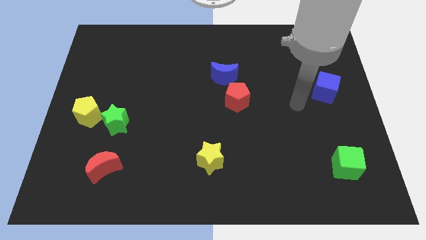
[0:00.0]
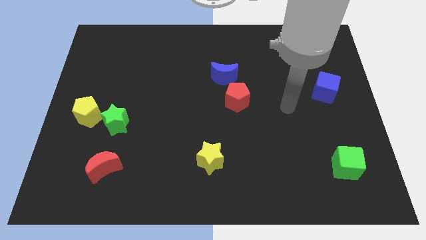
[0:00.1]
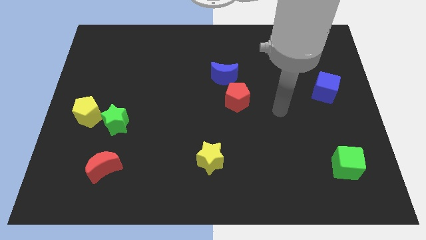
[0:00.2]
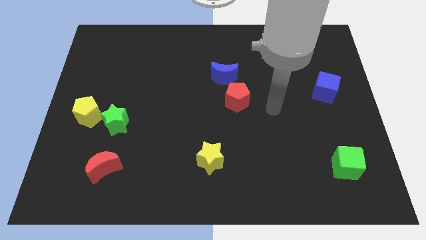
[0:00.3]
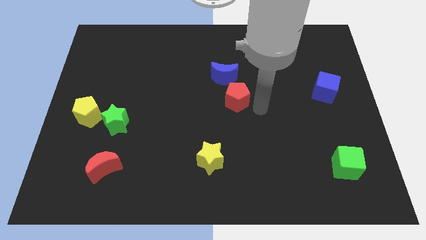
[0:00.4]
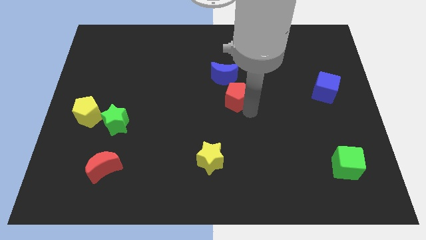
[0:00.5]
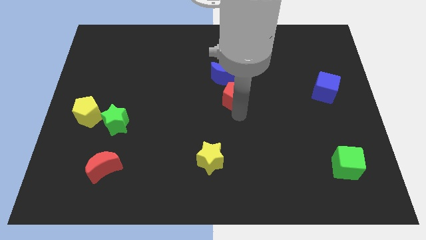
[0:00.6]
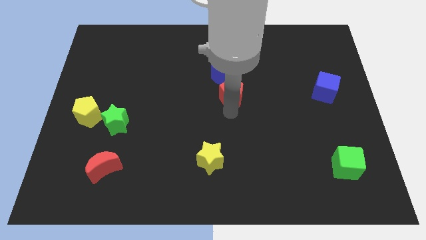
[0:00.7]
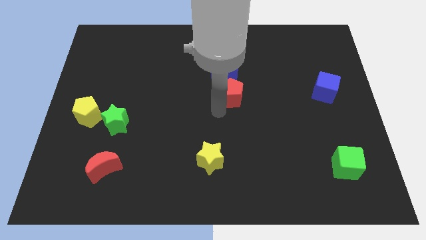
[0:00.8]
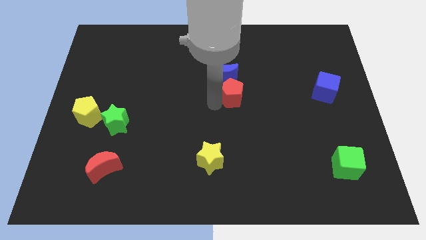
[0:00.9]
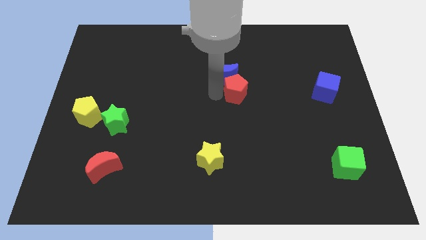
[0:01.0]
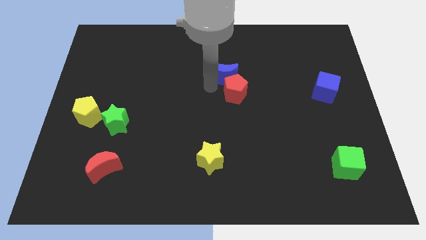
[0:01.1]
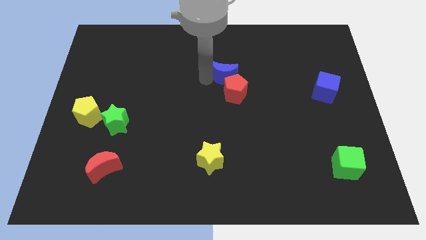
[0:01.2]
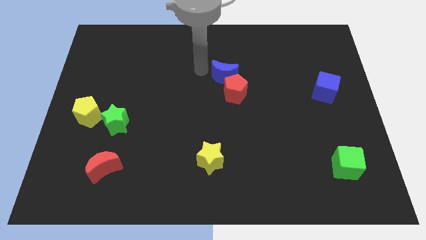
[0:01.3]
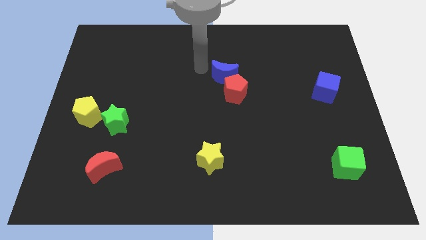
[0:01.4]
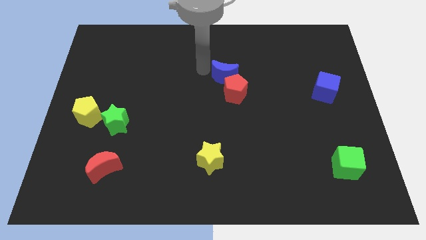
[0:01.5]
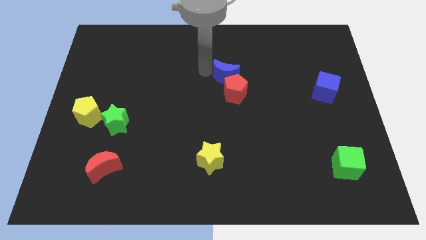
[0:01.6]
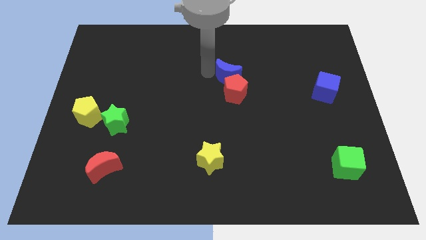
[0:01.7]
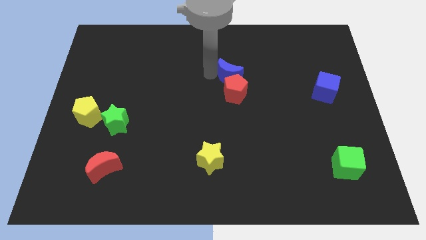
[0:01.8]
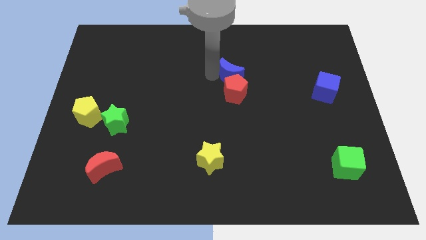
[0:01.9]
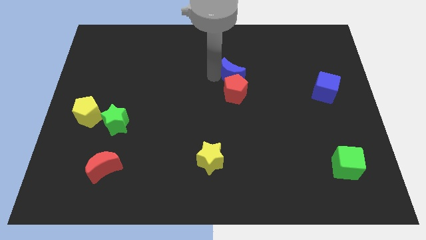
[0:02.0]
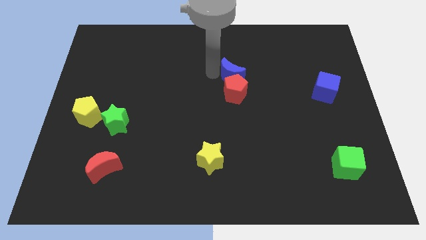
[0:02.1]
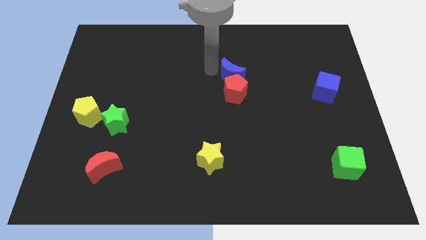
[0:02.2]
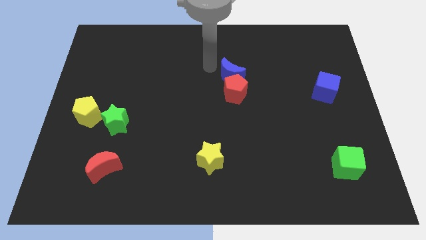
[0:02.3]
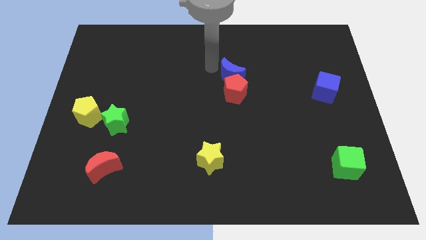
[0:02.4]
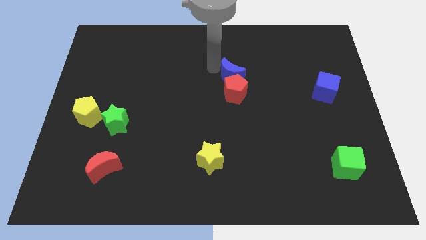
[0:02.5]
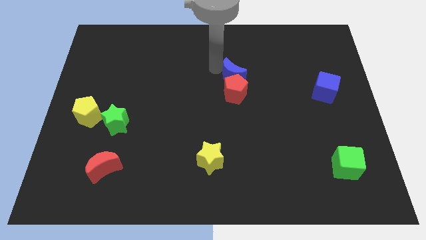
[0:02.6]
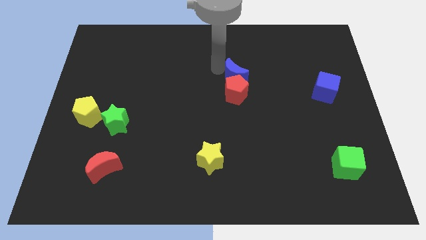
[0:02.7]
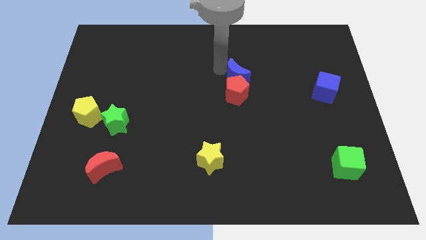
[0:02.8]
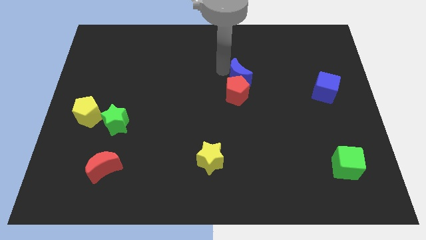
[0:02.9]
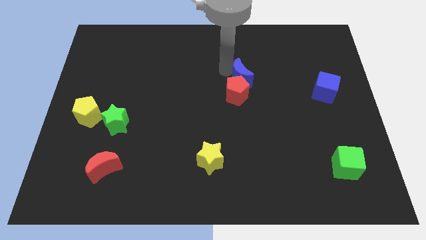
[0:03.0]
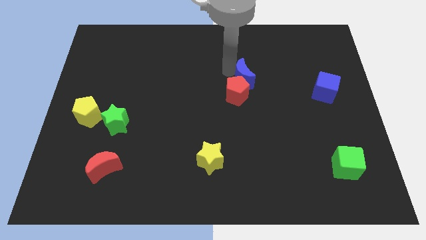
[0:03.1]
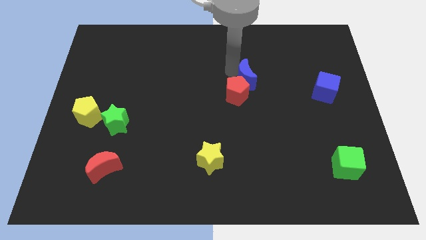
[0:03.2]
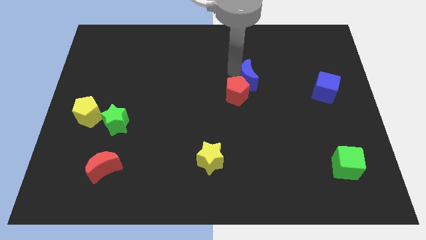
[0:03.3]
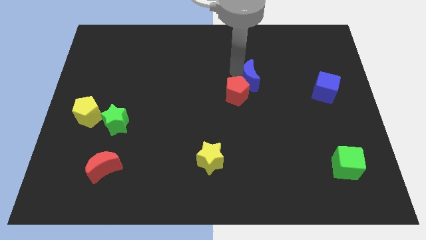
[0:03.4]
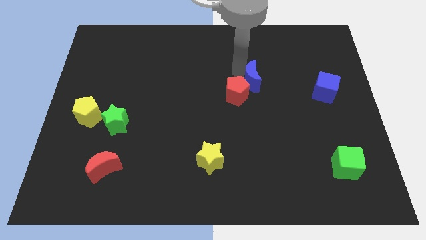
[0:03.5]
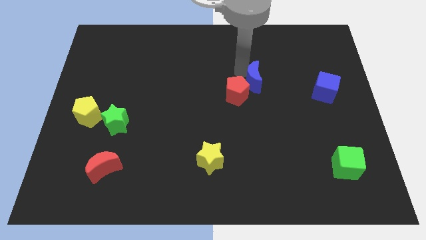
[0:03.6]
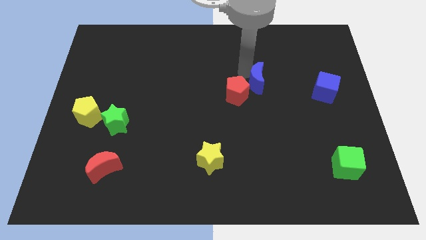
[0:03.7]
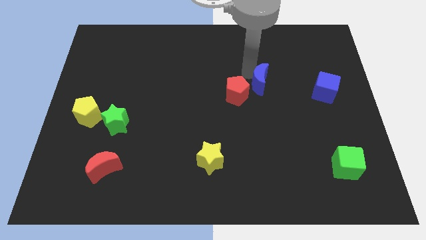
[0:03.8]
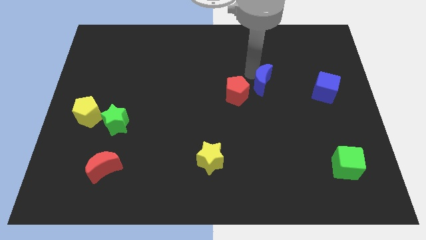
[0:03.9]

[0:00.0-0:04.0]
slightly push the blue moon downwards and then right

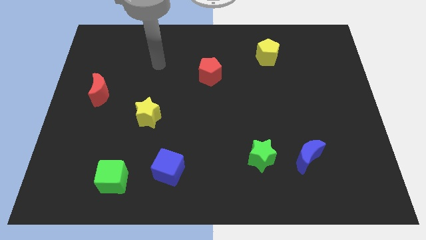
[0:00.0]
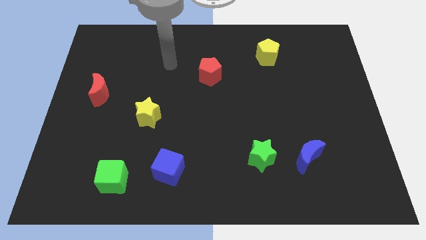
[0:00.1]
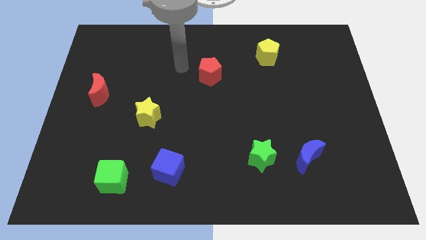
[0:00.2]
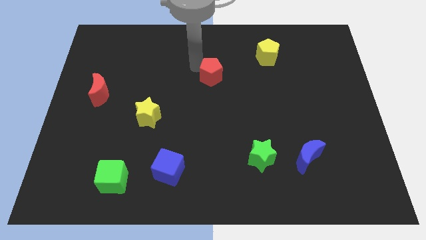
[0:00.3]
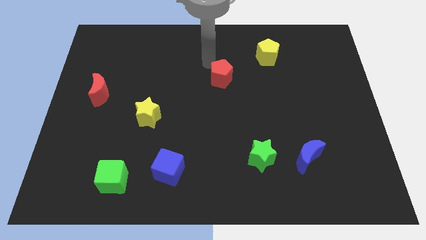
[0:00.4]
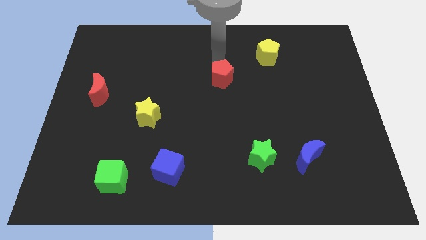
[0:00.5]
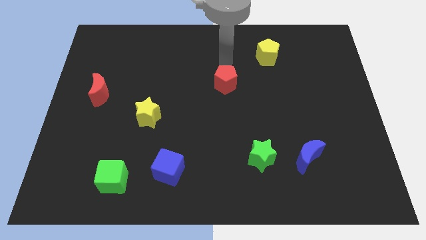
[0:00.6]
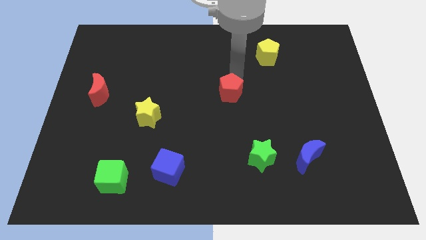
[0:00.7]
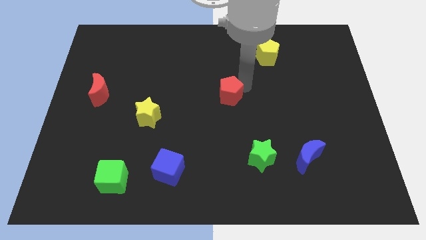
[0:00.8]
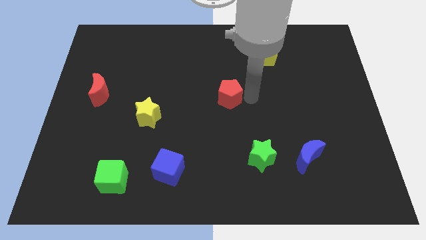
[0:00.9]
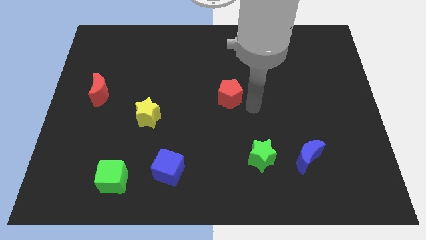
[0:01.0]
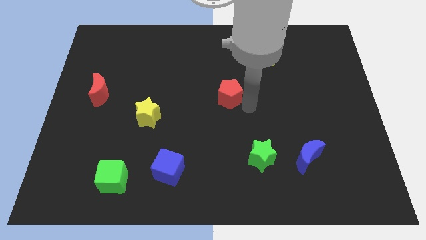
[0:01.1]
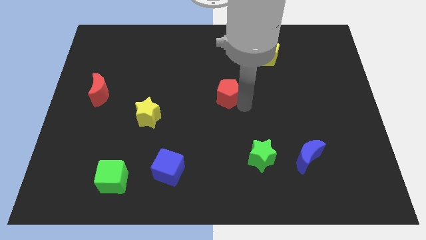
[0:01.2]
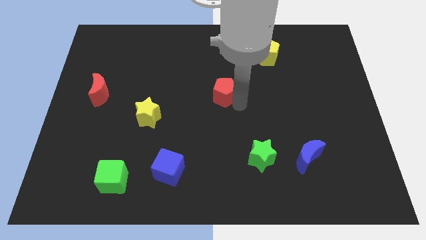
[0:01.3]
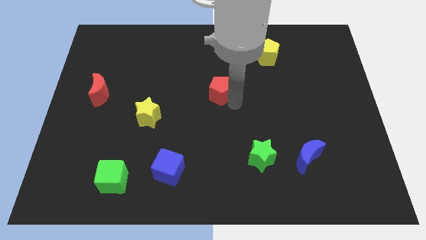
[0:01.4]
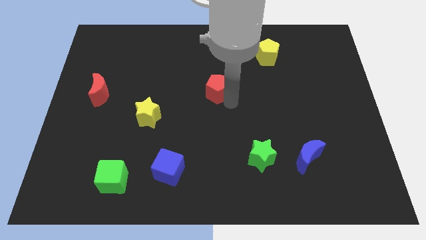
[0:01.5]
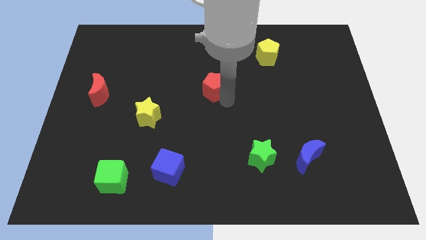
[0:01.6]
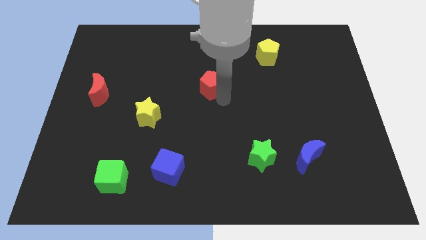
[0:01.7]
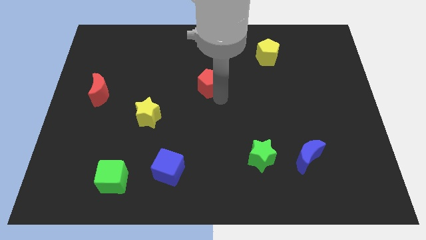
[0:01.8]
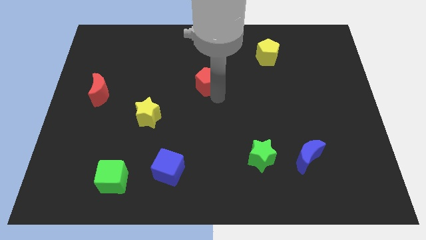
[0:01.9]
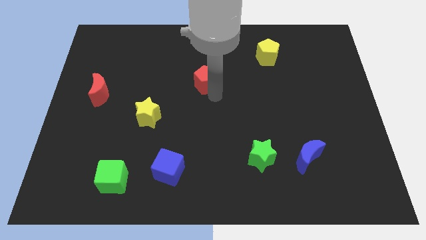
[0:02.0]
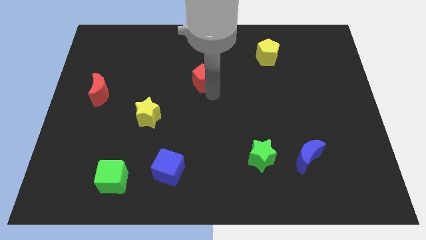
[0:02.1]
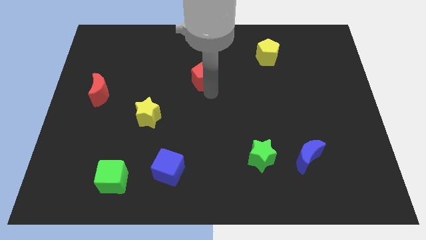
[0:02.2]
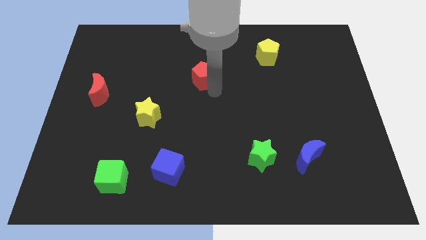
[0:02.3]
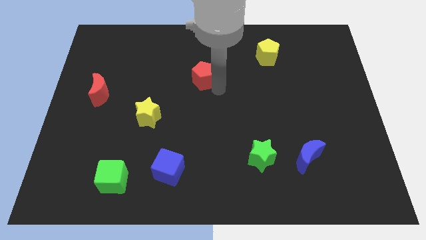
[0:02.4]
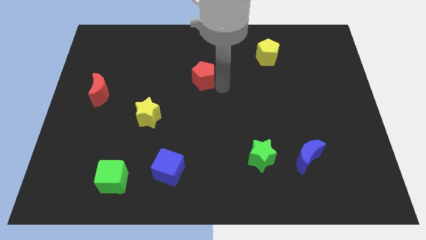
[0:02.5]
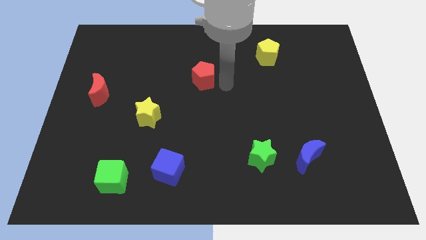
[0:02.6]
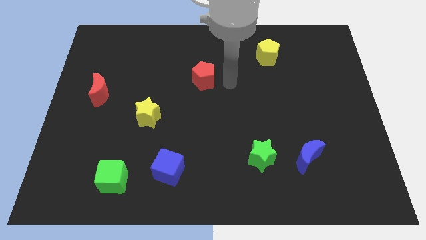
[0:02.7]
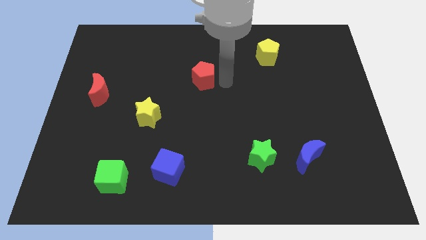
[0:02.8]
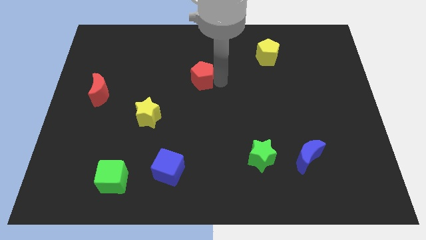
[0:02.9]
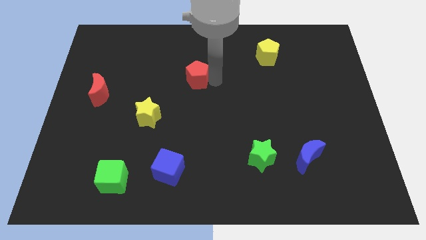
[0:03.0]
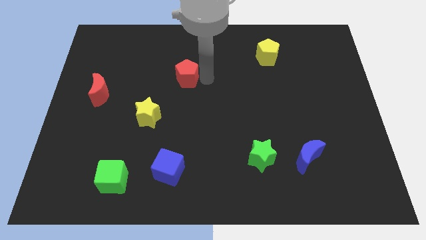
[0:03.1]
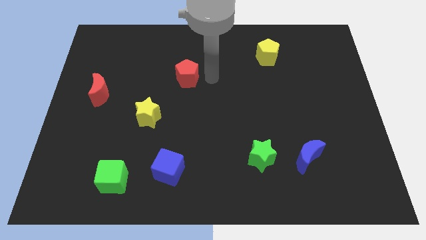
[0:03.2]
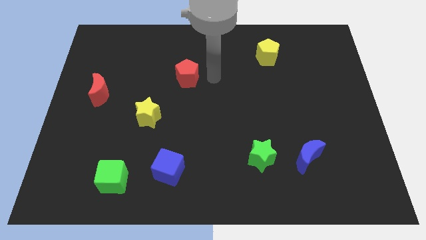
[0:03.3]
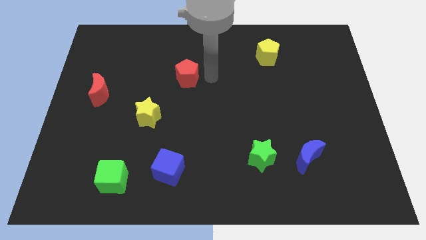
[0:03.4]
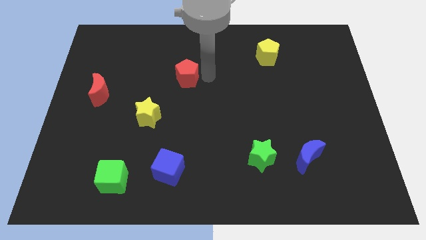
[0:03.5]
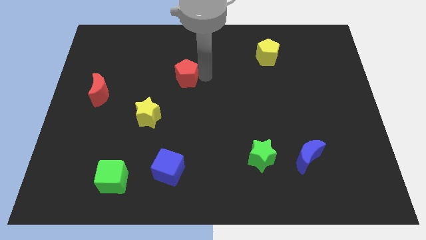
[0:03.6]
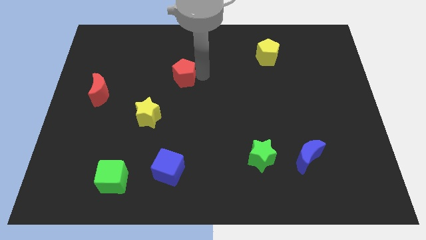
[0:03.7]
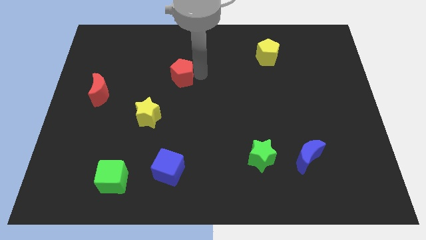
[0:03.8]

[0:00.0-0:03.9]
move the red pentagon left a bit

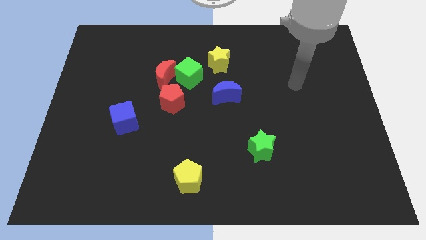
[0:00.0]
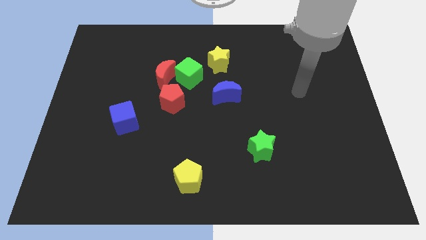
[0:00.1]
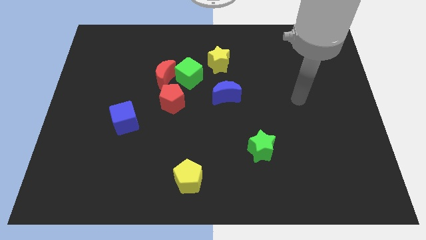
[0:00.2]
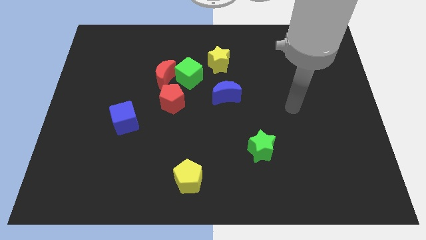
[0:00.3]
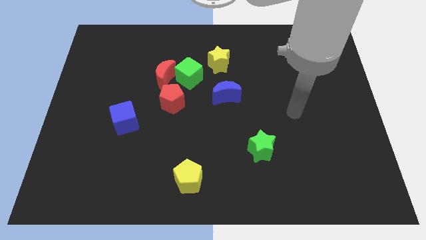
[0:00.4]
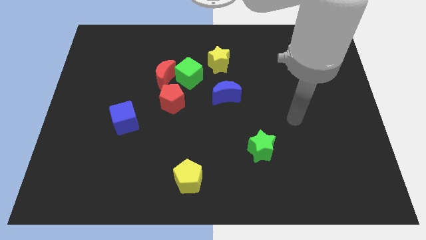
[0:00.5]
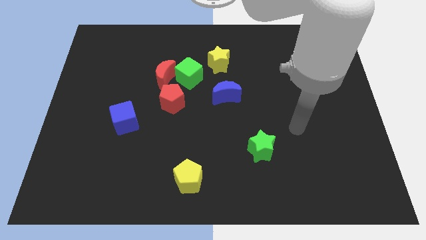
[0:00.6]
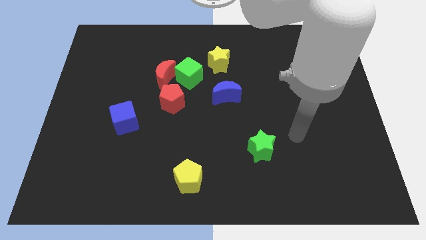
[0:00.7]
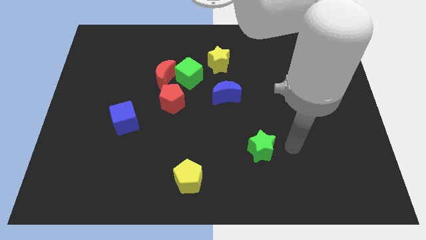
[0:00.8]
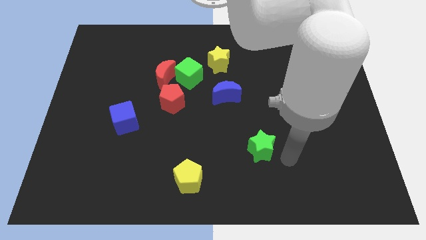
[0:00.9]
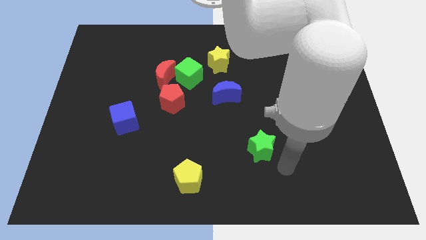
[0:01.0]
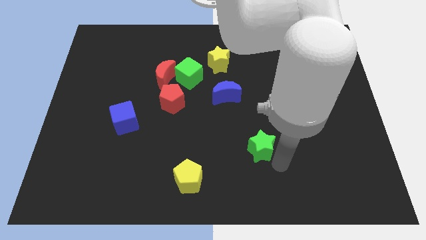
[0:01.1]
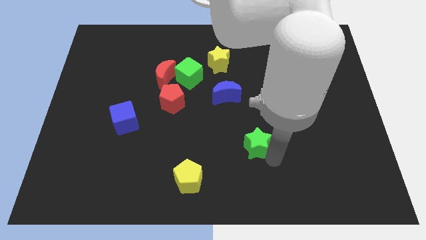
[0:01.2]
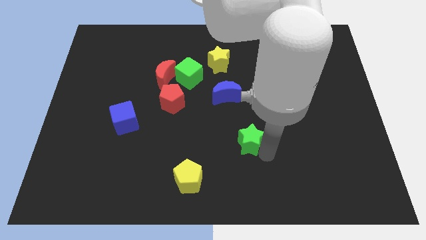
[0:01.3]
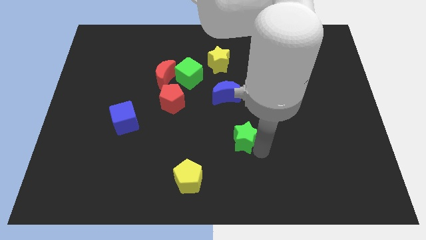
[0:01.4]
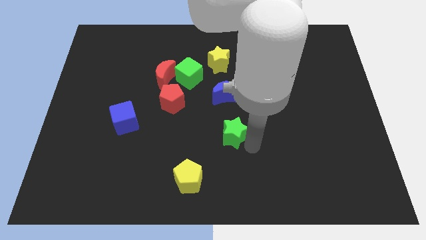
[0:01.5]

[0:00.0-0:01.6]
push the green star slightly diagonally up and left
